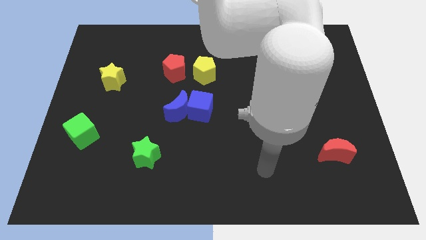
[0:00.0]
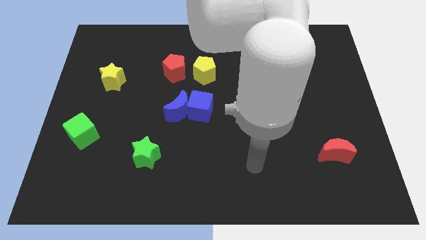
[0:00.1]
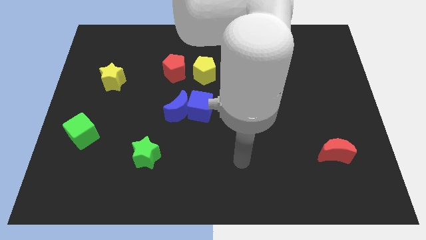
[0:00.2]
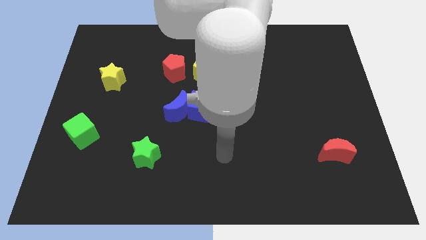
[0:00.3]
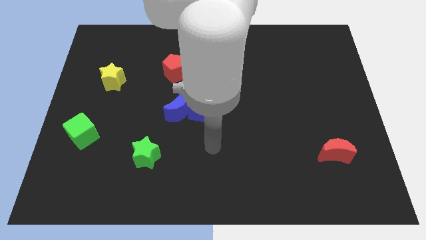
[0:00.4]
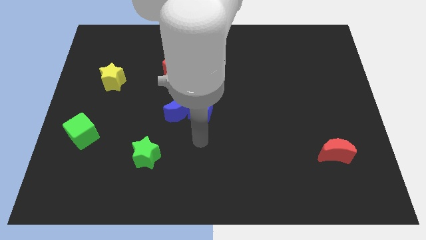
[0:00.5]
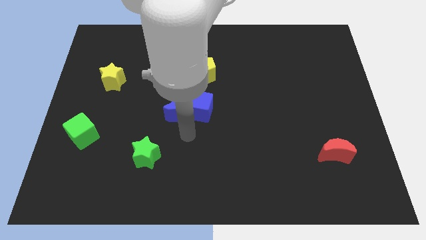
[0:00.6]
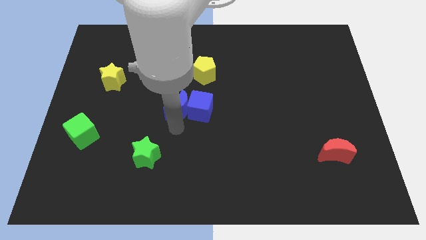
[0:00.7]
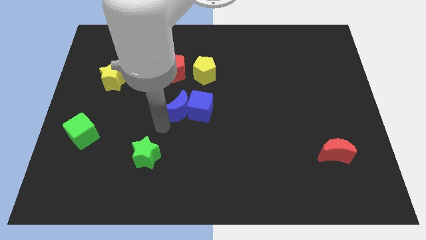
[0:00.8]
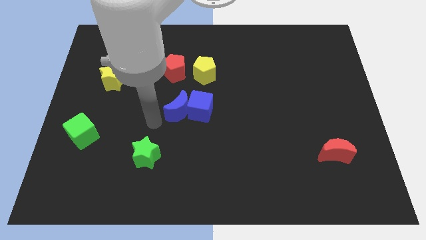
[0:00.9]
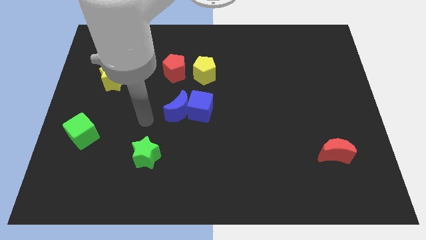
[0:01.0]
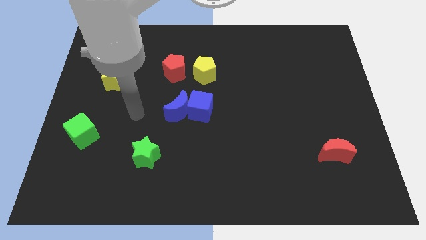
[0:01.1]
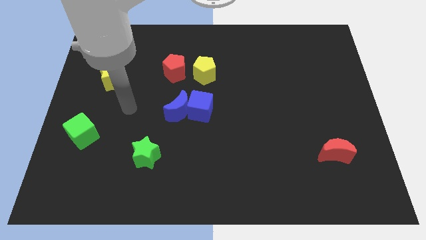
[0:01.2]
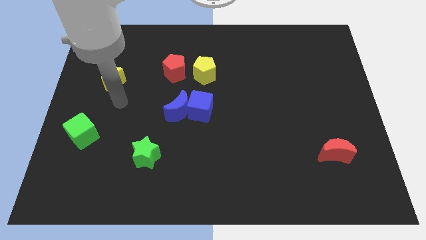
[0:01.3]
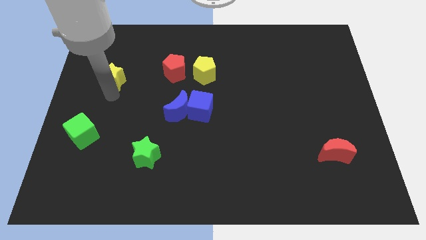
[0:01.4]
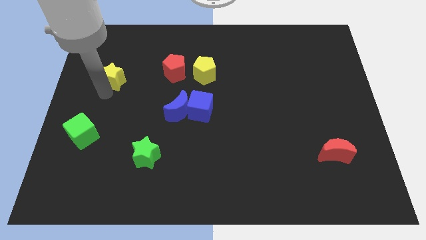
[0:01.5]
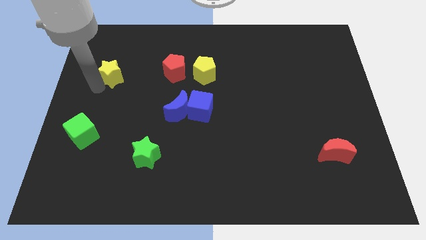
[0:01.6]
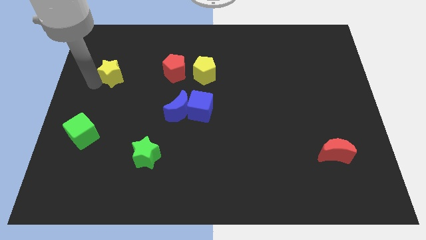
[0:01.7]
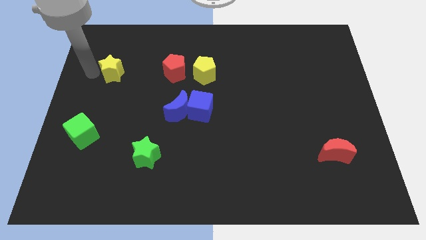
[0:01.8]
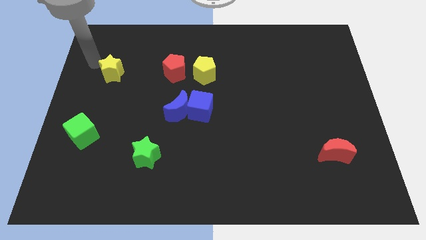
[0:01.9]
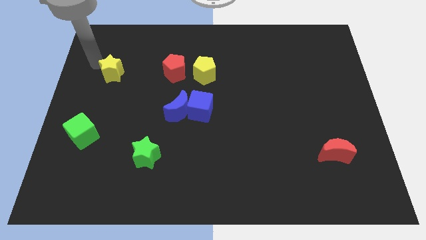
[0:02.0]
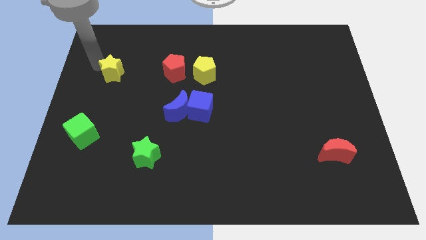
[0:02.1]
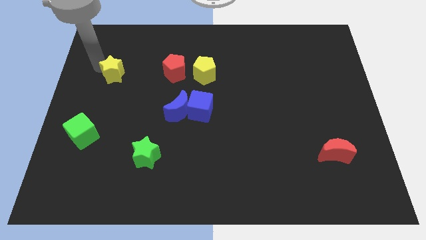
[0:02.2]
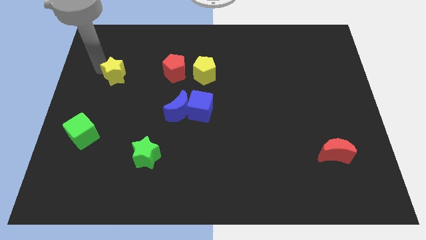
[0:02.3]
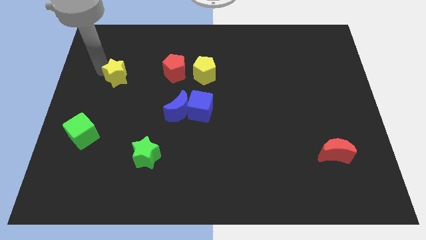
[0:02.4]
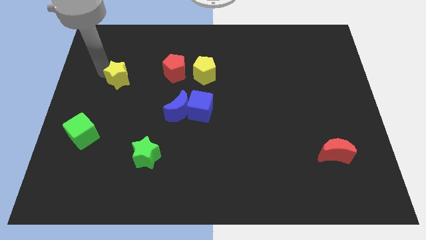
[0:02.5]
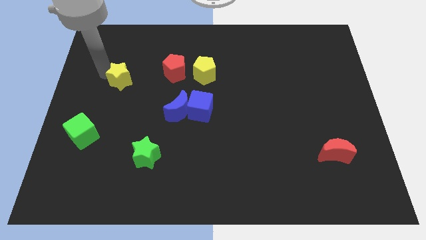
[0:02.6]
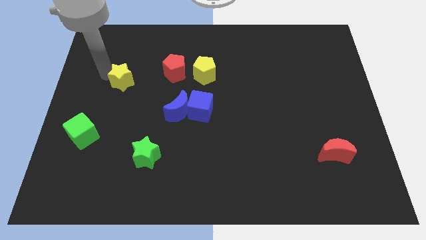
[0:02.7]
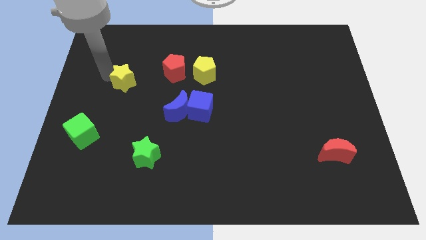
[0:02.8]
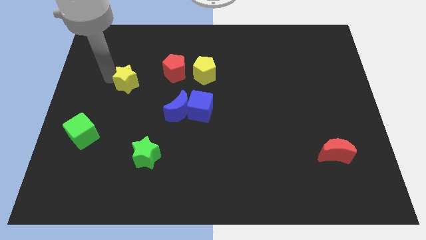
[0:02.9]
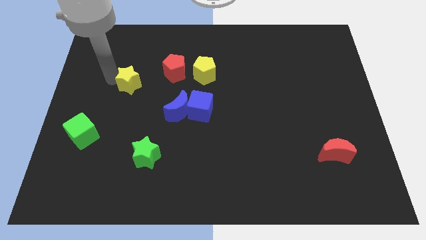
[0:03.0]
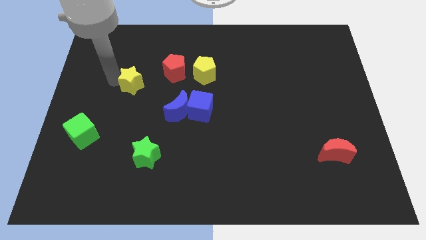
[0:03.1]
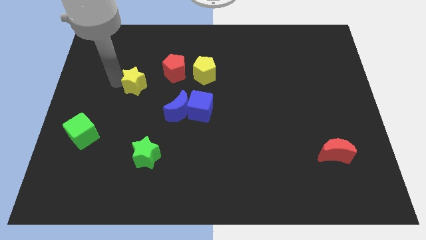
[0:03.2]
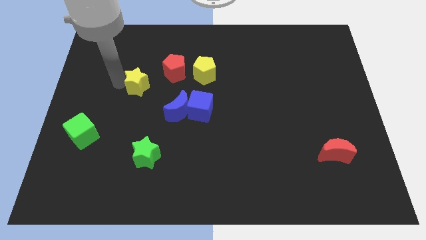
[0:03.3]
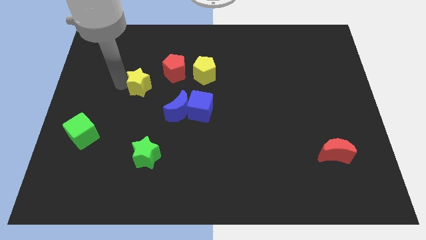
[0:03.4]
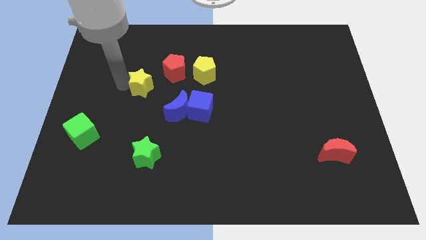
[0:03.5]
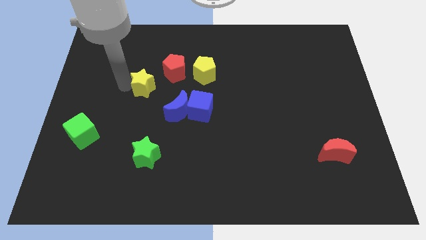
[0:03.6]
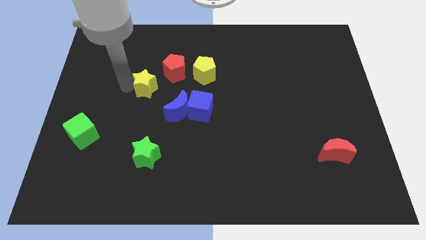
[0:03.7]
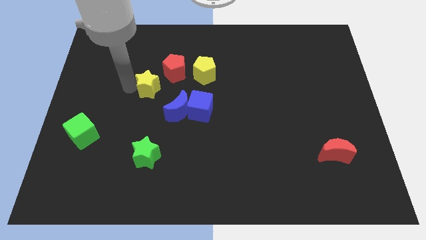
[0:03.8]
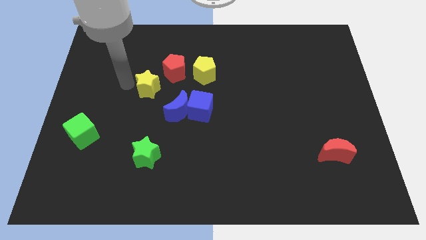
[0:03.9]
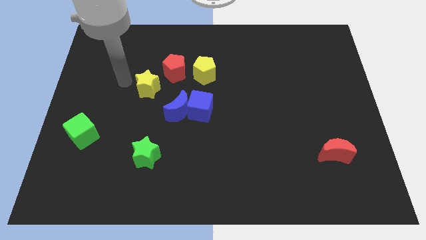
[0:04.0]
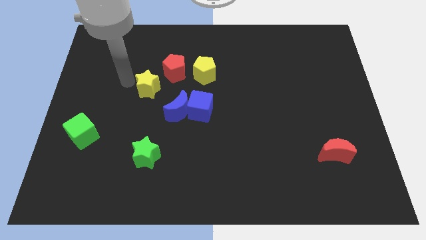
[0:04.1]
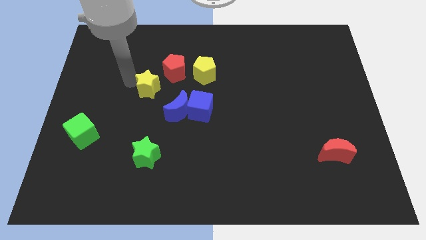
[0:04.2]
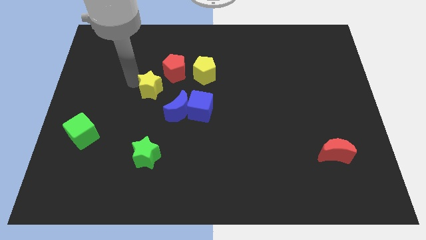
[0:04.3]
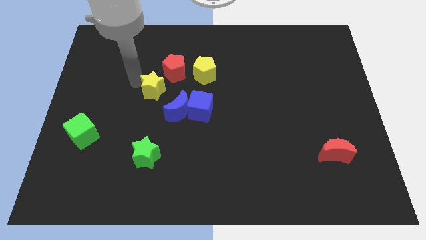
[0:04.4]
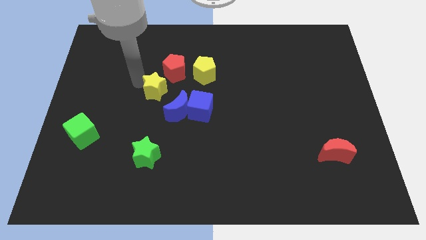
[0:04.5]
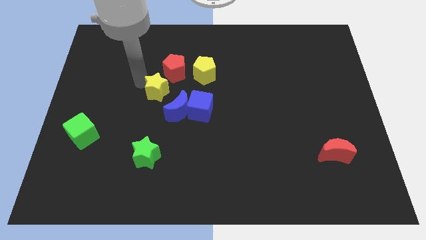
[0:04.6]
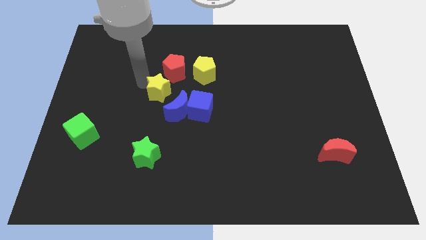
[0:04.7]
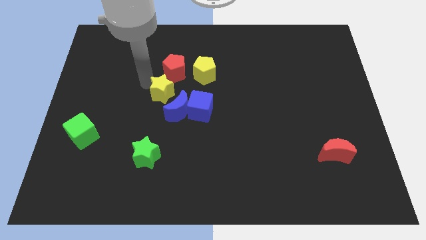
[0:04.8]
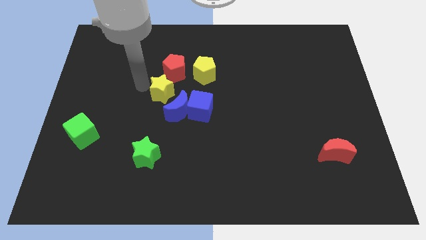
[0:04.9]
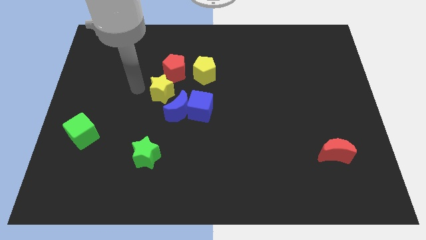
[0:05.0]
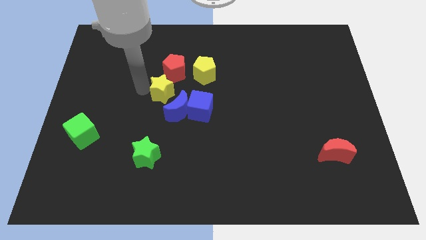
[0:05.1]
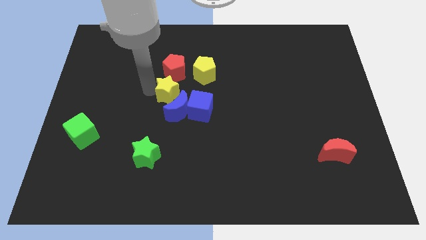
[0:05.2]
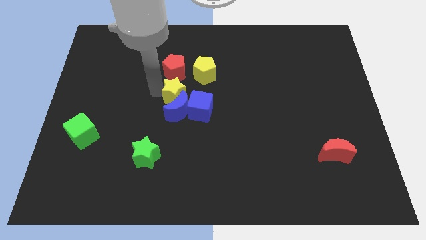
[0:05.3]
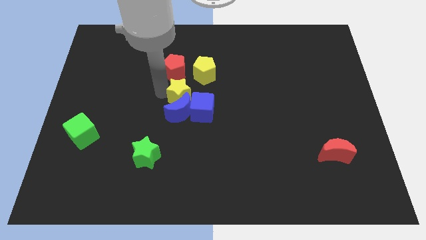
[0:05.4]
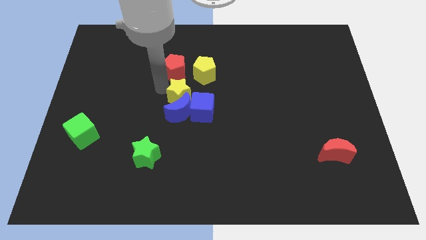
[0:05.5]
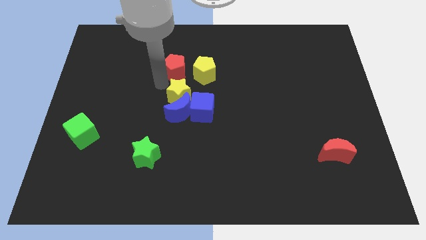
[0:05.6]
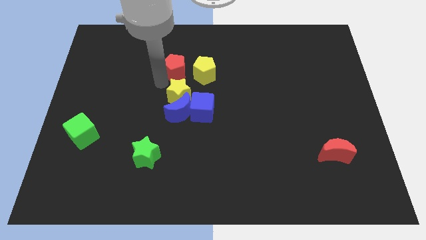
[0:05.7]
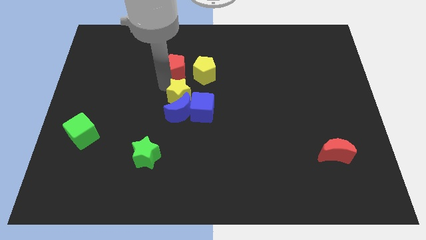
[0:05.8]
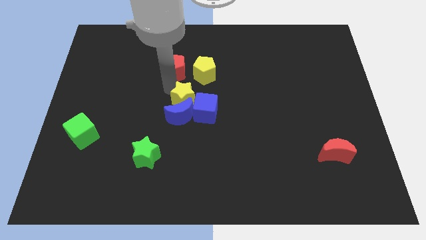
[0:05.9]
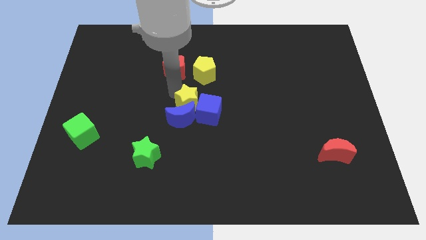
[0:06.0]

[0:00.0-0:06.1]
push the yellow star next to the blue cube

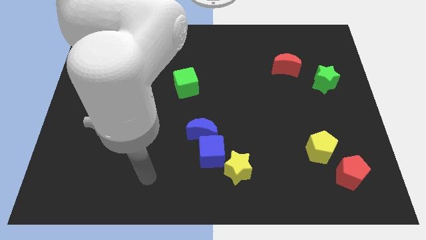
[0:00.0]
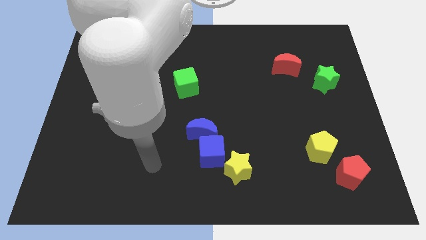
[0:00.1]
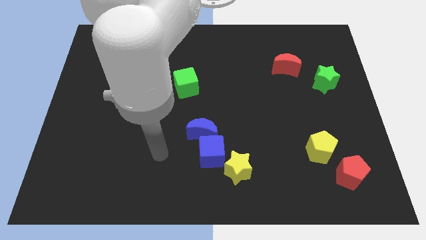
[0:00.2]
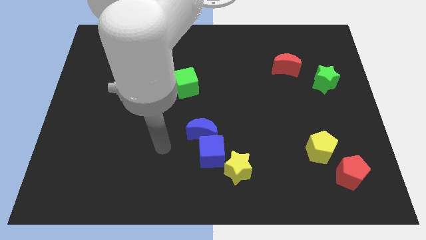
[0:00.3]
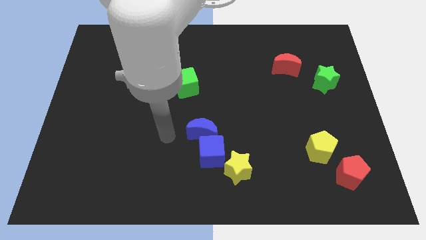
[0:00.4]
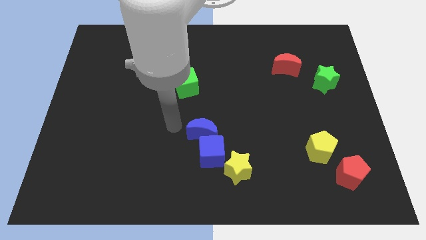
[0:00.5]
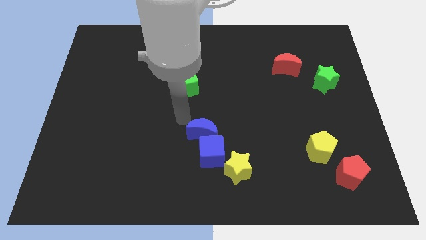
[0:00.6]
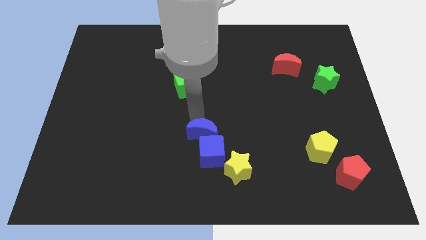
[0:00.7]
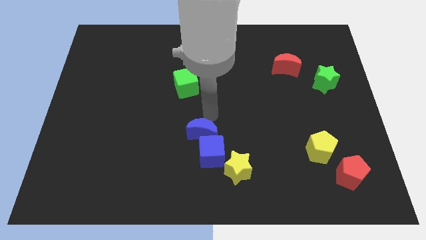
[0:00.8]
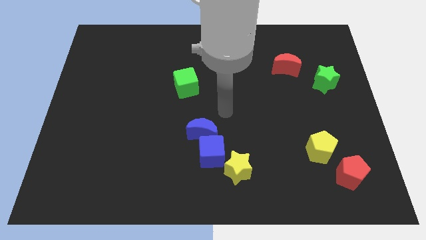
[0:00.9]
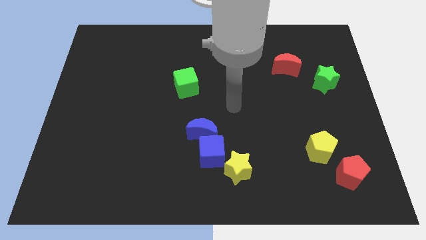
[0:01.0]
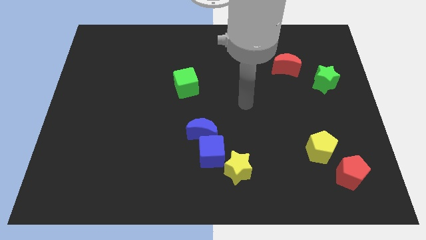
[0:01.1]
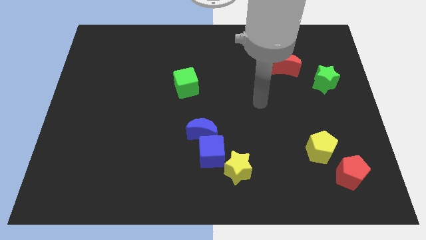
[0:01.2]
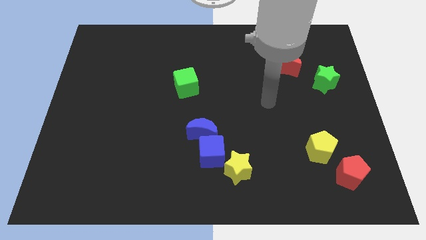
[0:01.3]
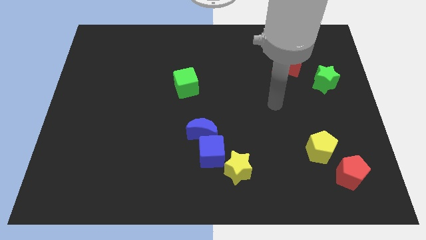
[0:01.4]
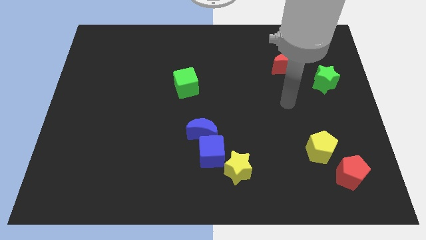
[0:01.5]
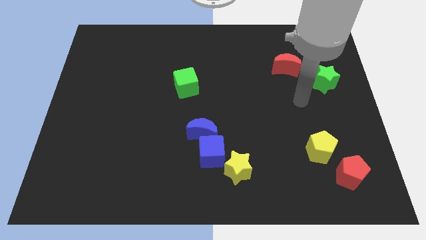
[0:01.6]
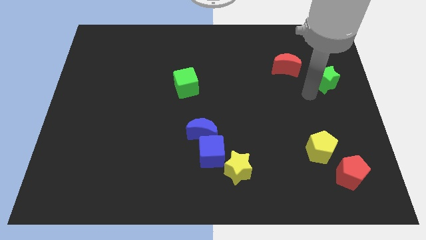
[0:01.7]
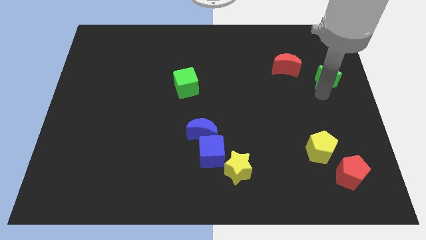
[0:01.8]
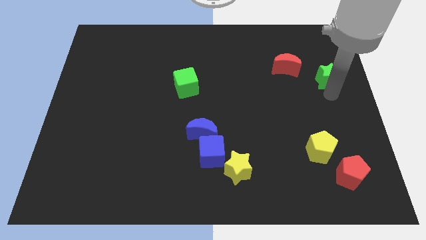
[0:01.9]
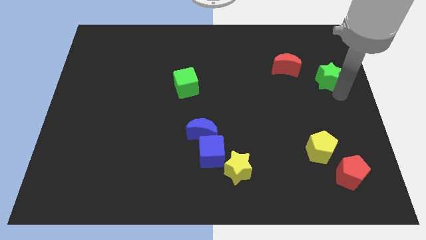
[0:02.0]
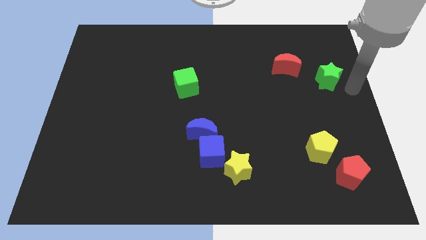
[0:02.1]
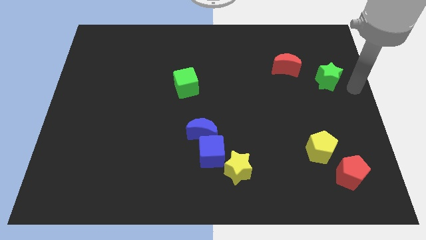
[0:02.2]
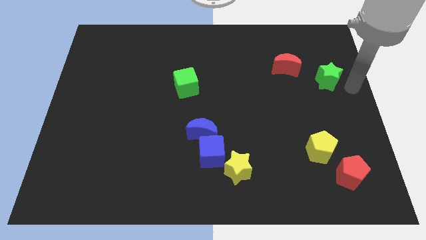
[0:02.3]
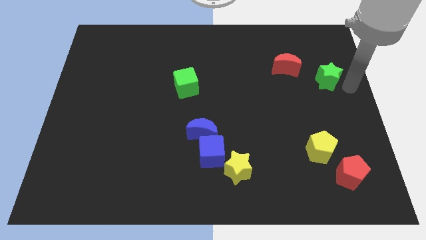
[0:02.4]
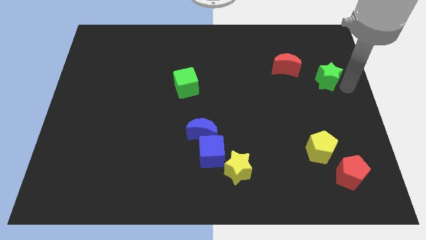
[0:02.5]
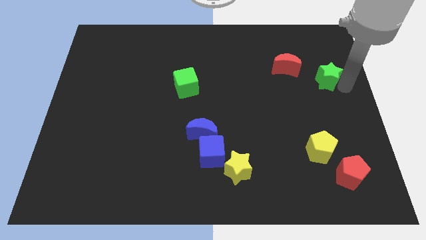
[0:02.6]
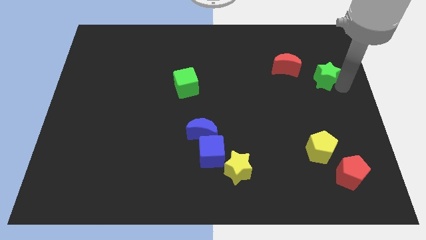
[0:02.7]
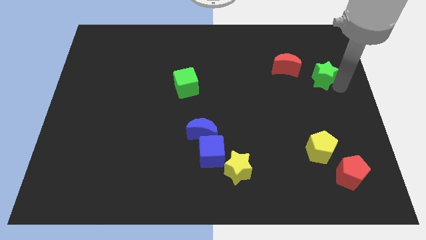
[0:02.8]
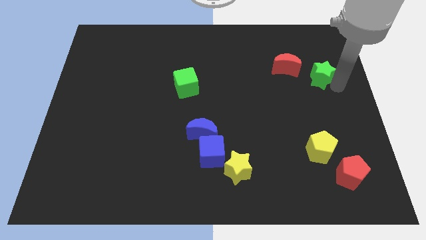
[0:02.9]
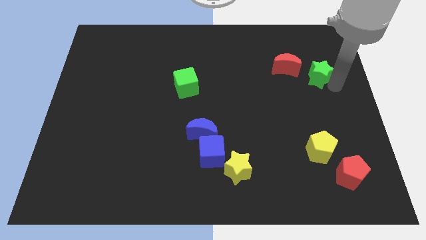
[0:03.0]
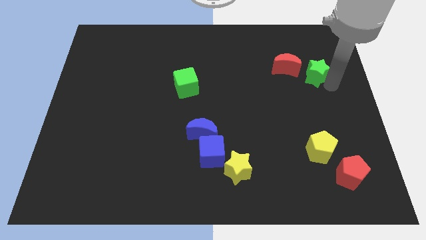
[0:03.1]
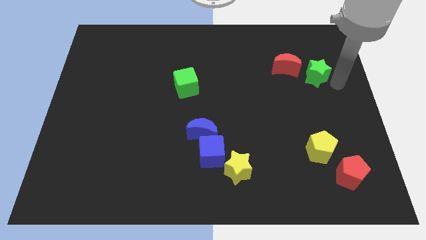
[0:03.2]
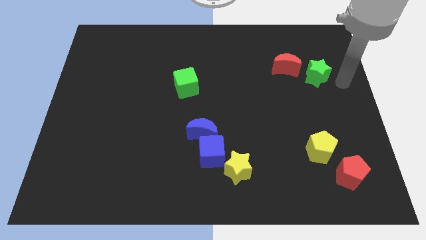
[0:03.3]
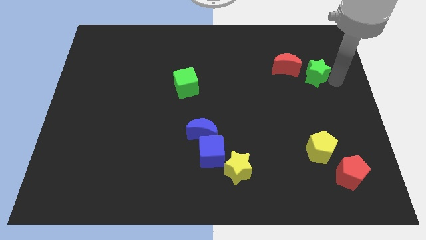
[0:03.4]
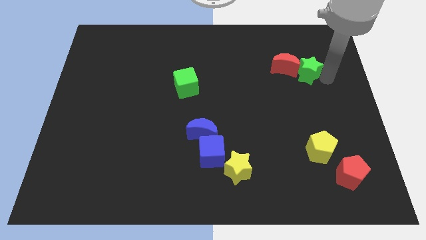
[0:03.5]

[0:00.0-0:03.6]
slide the green star to the red moon
